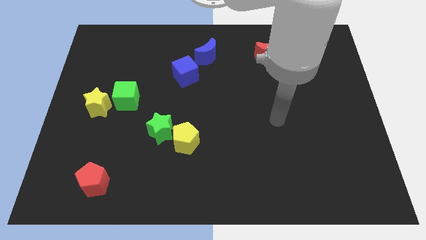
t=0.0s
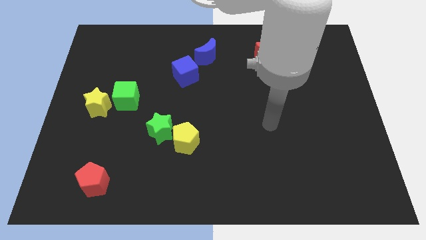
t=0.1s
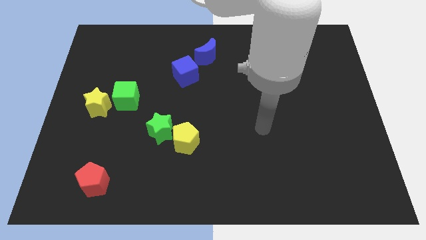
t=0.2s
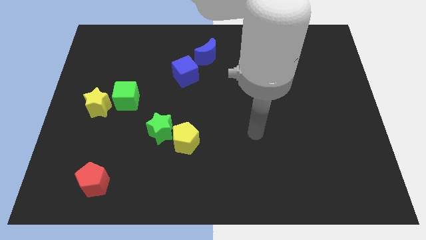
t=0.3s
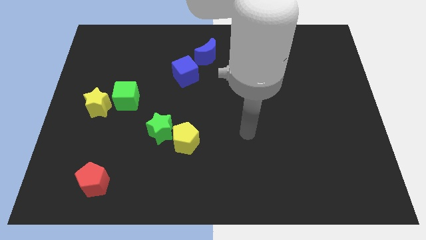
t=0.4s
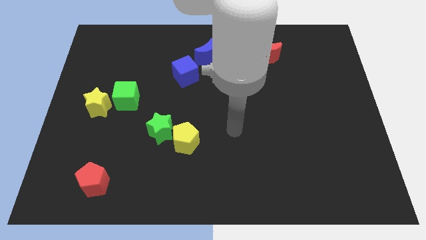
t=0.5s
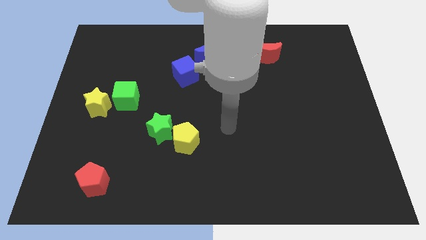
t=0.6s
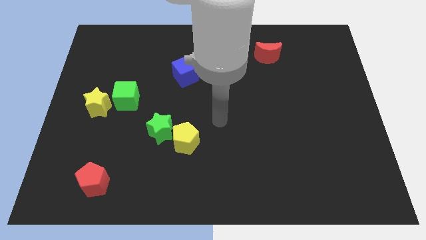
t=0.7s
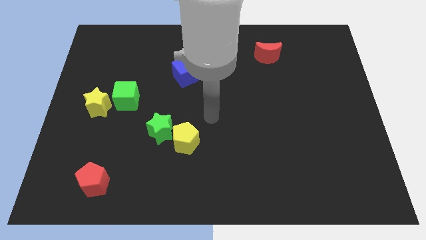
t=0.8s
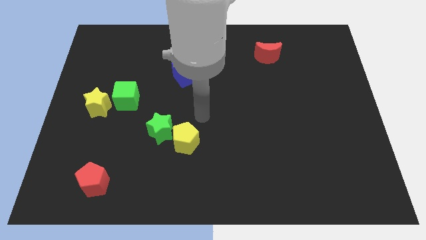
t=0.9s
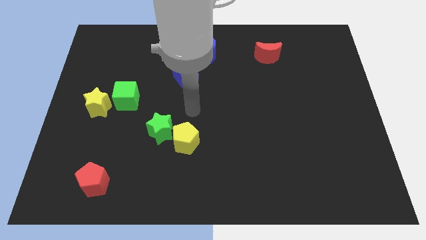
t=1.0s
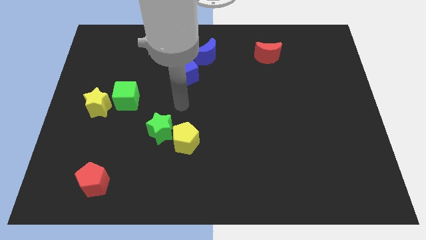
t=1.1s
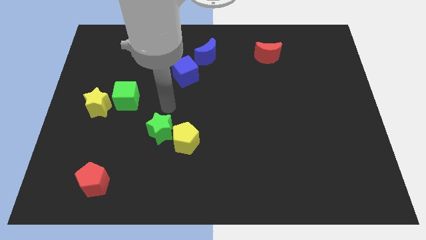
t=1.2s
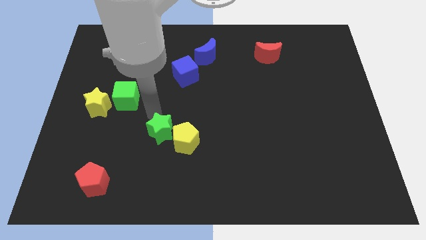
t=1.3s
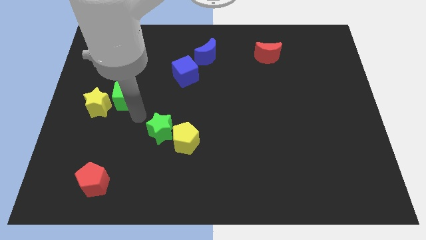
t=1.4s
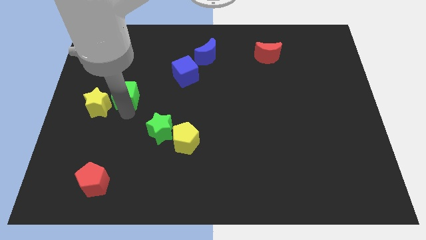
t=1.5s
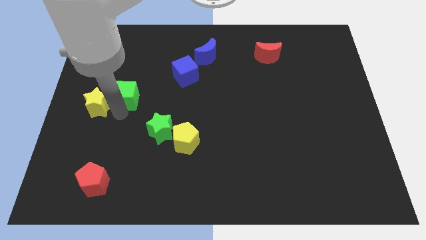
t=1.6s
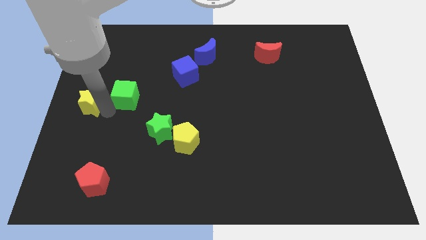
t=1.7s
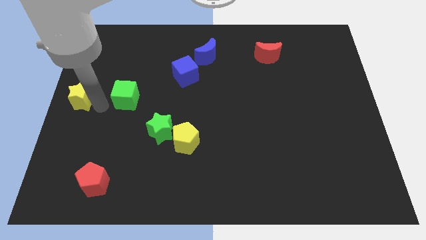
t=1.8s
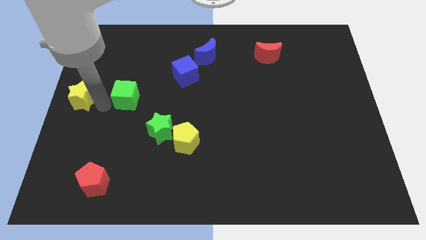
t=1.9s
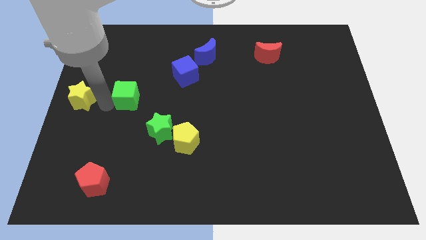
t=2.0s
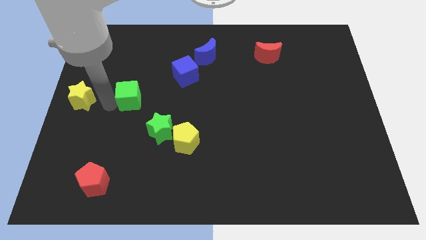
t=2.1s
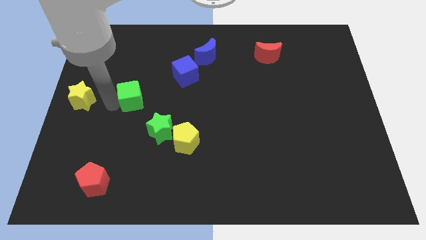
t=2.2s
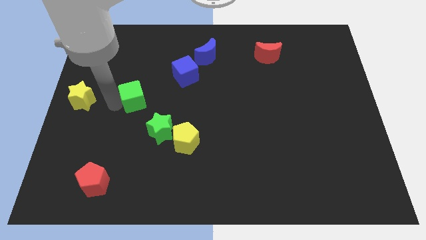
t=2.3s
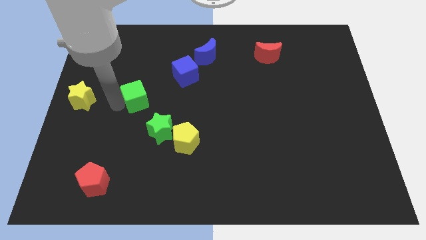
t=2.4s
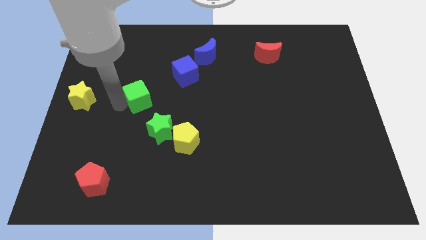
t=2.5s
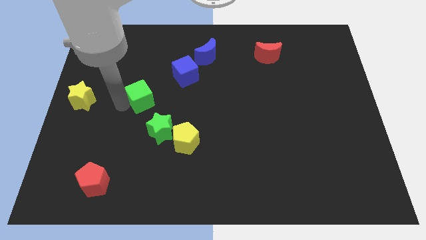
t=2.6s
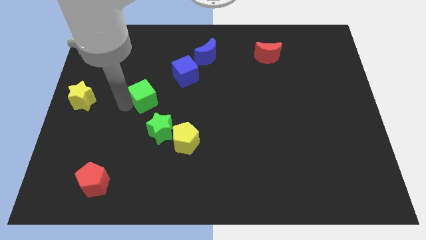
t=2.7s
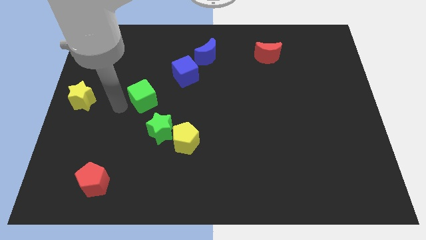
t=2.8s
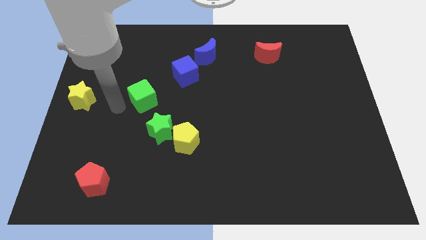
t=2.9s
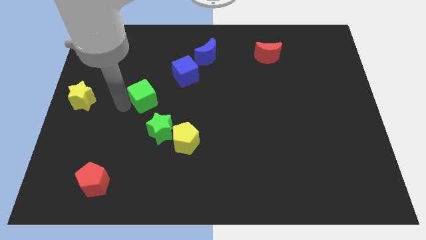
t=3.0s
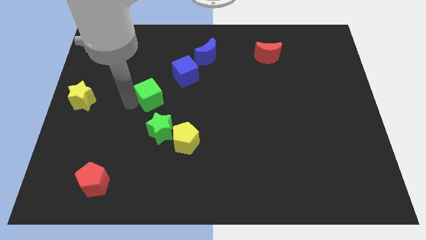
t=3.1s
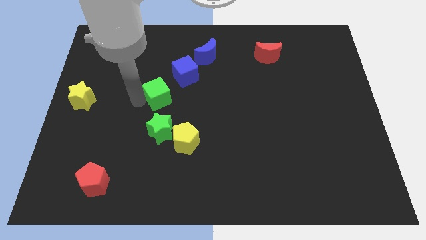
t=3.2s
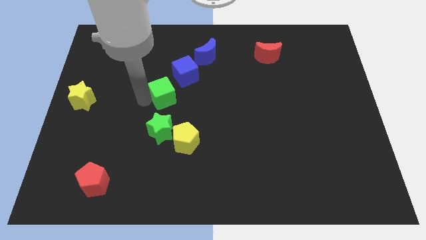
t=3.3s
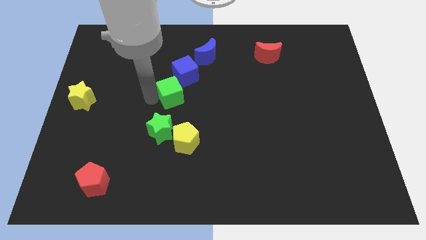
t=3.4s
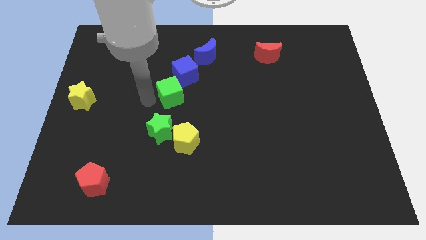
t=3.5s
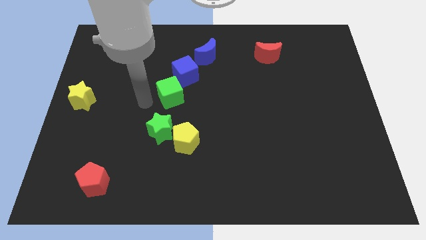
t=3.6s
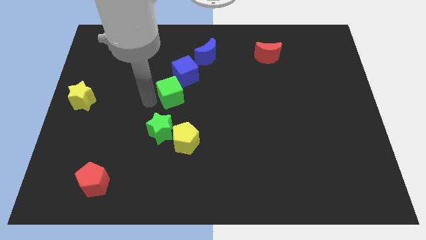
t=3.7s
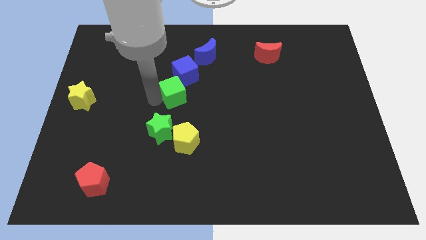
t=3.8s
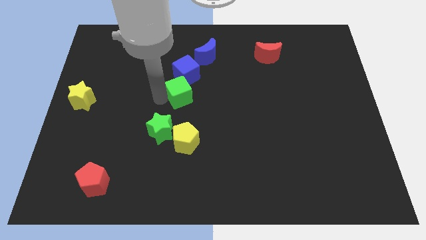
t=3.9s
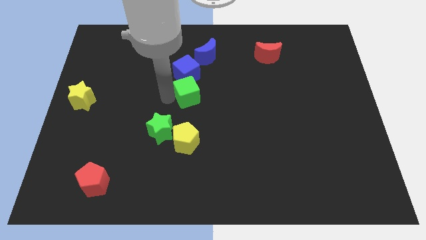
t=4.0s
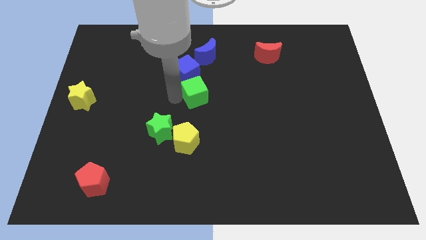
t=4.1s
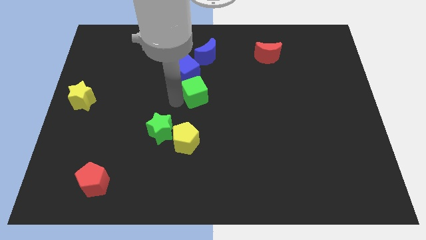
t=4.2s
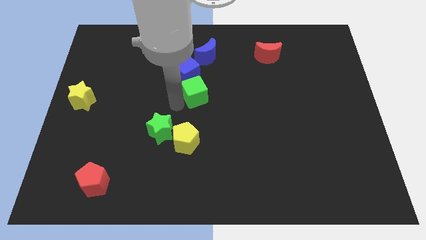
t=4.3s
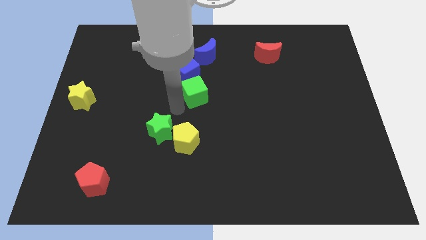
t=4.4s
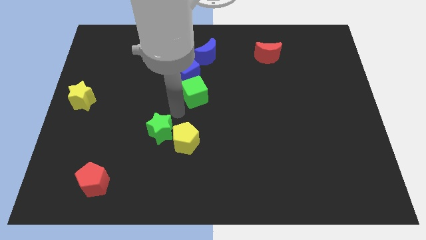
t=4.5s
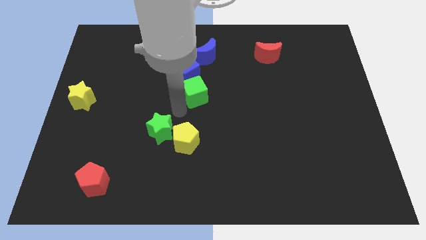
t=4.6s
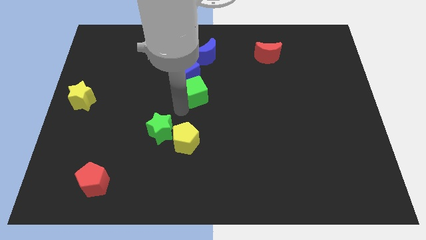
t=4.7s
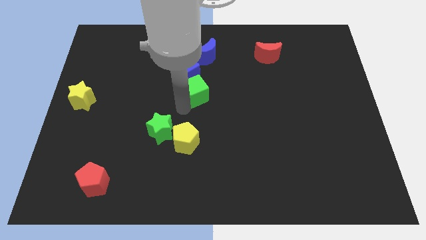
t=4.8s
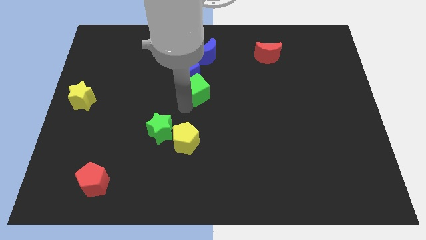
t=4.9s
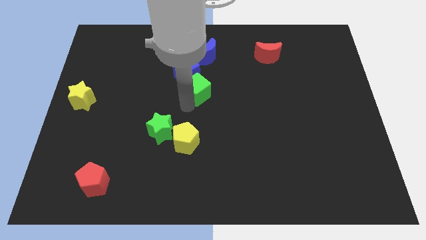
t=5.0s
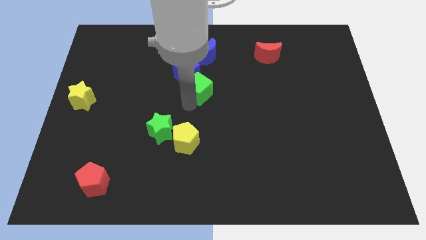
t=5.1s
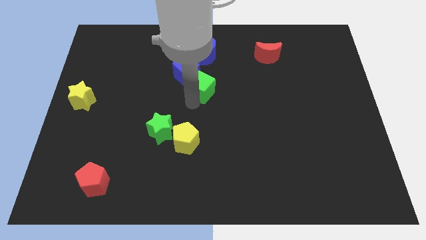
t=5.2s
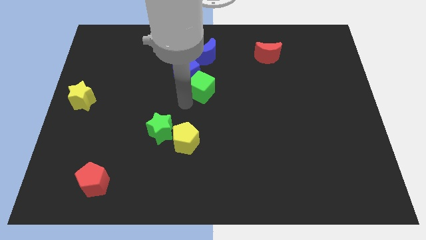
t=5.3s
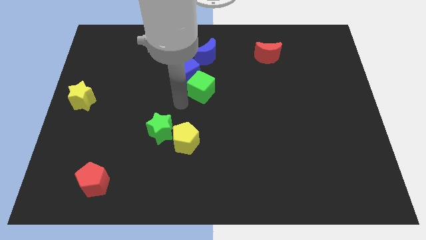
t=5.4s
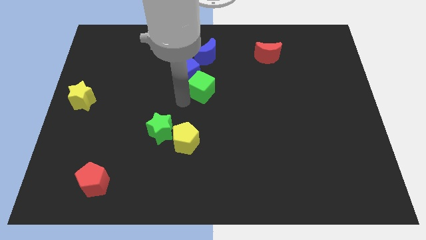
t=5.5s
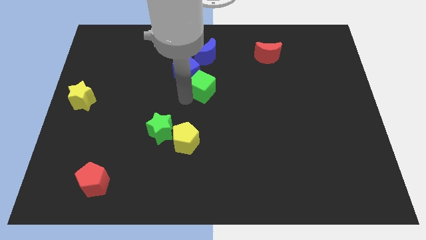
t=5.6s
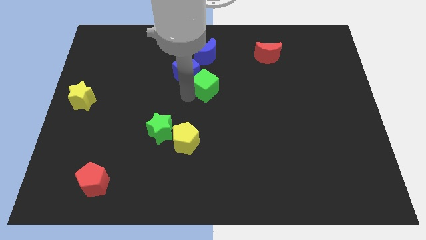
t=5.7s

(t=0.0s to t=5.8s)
move the green cube to the right of the blue cube

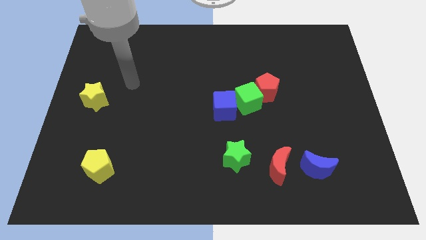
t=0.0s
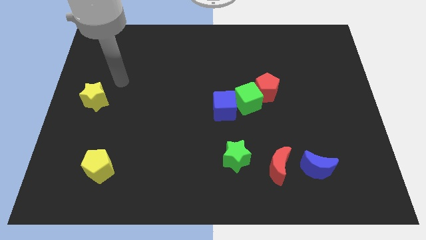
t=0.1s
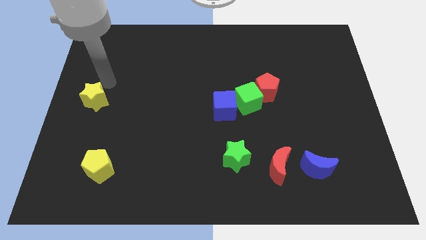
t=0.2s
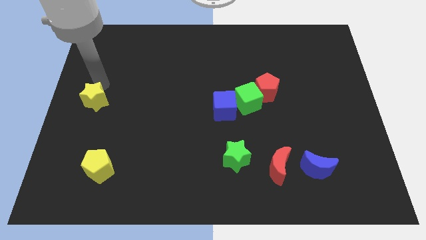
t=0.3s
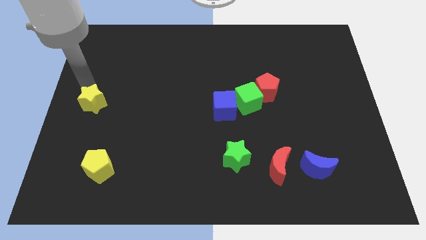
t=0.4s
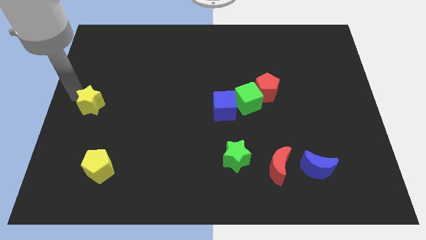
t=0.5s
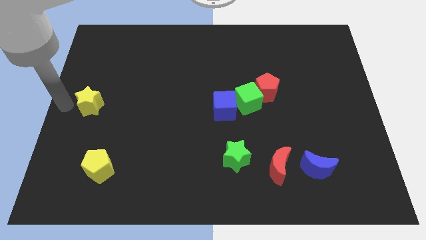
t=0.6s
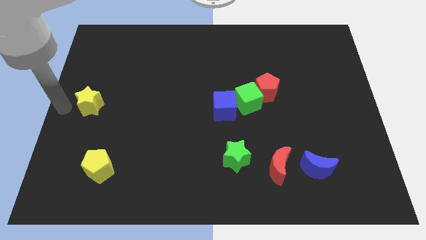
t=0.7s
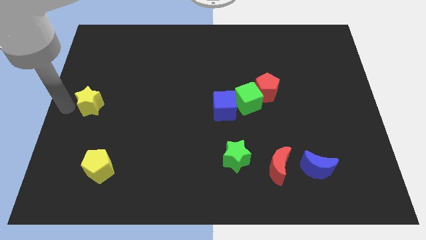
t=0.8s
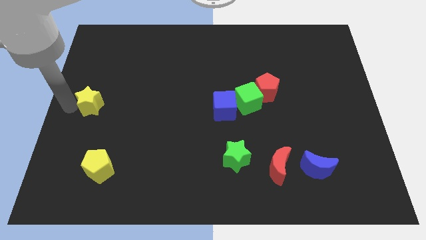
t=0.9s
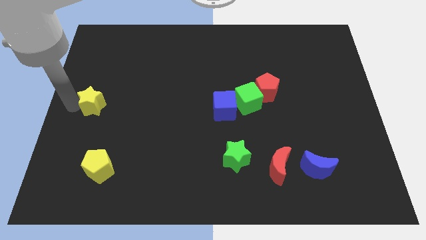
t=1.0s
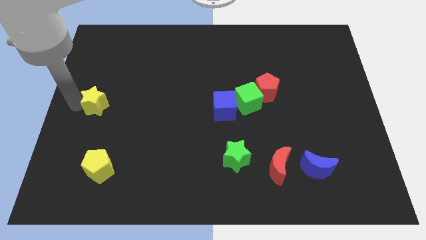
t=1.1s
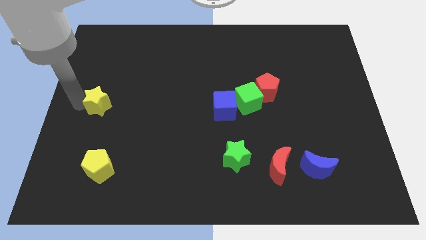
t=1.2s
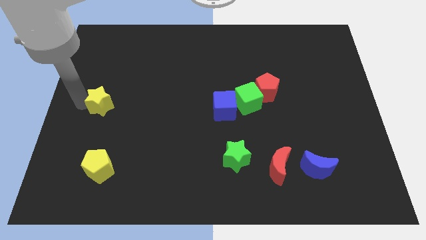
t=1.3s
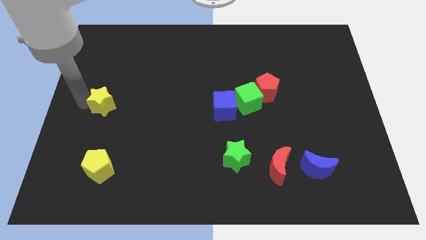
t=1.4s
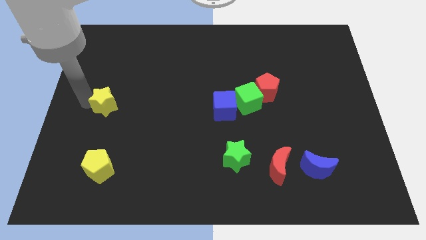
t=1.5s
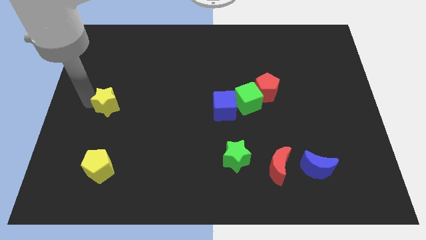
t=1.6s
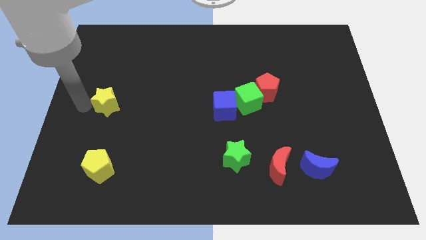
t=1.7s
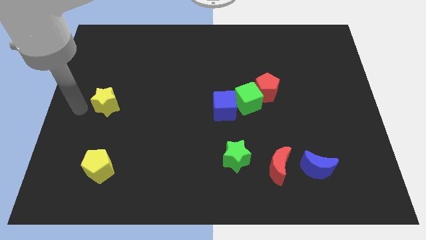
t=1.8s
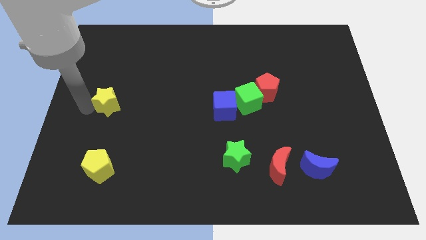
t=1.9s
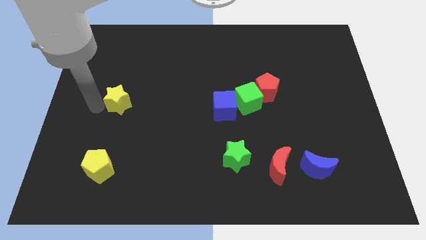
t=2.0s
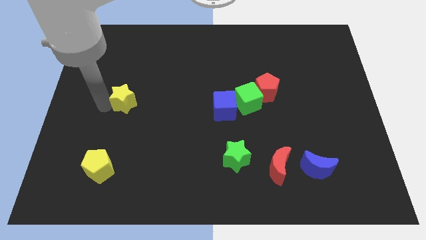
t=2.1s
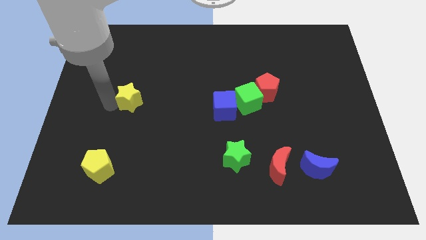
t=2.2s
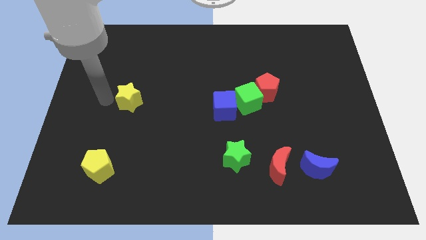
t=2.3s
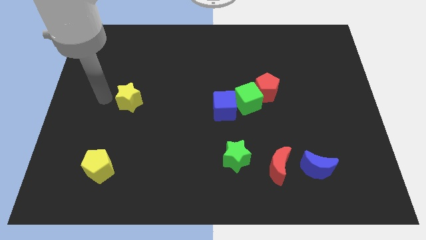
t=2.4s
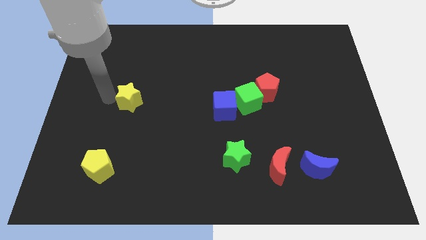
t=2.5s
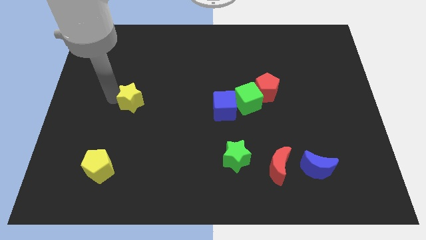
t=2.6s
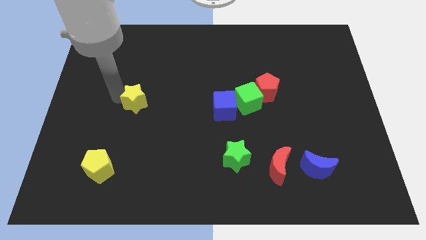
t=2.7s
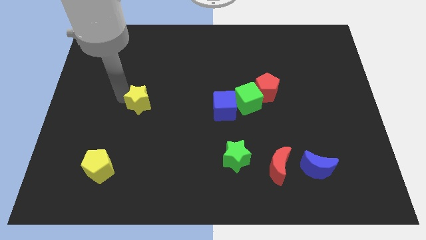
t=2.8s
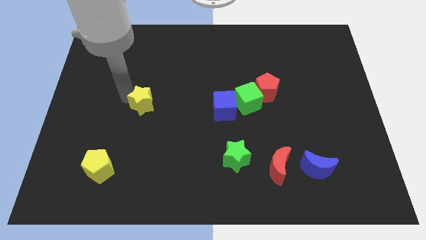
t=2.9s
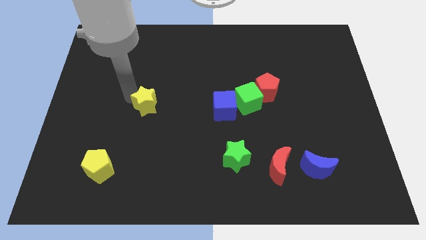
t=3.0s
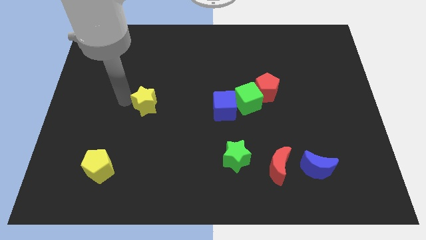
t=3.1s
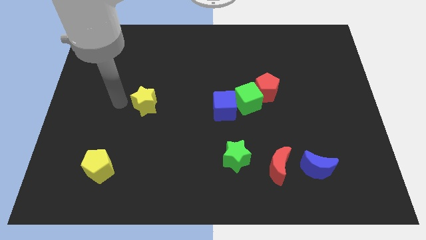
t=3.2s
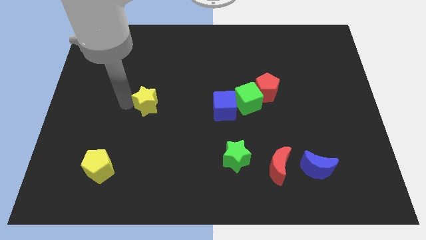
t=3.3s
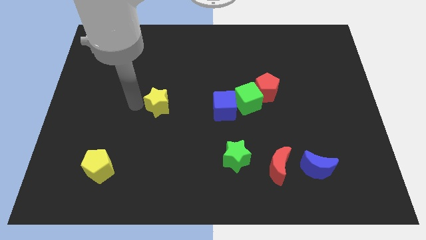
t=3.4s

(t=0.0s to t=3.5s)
slide the yellow star to the left of the blue cube
